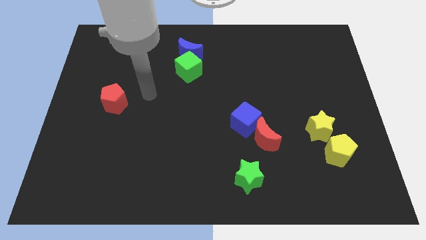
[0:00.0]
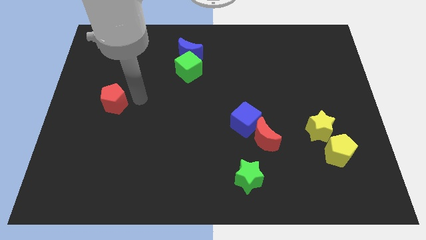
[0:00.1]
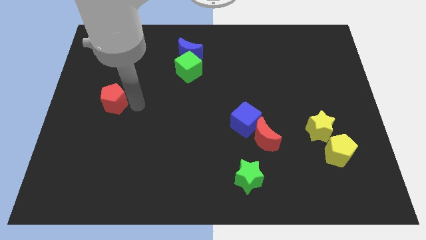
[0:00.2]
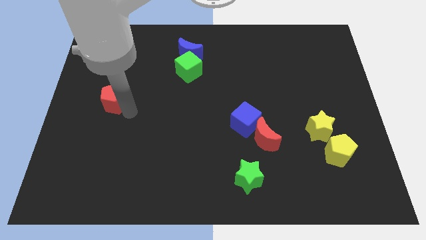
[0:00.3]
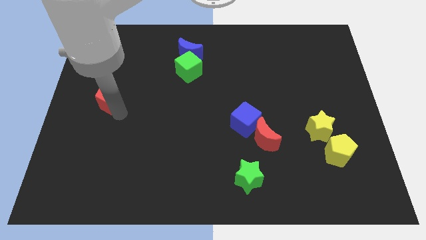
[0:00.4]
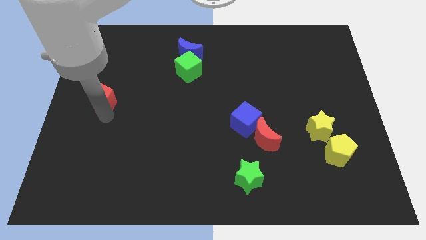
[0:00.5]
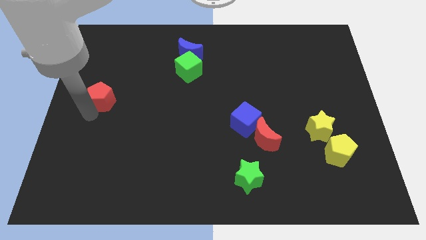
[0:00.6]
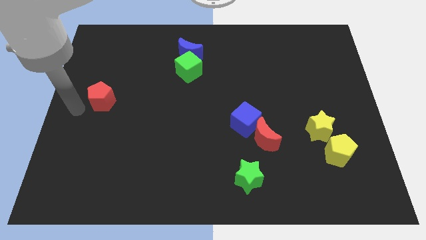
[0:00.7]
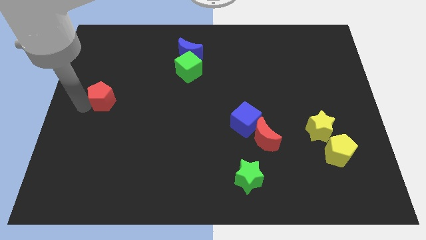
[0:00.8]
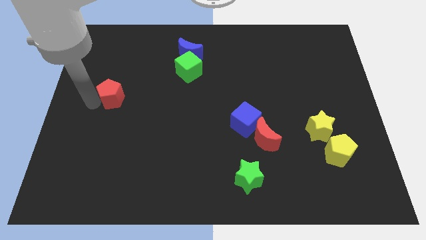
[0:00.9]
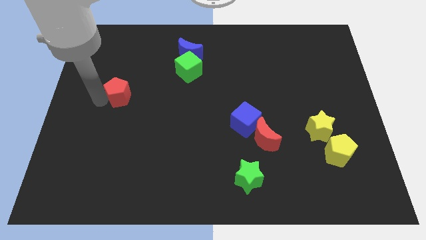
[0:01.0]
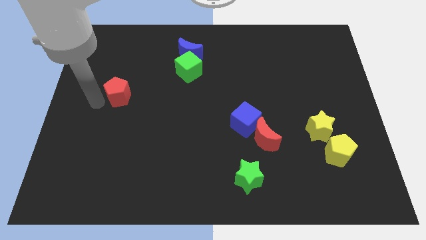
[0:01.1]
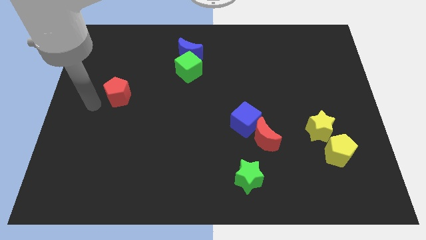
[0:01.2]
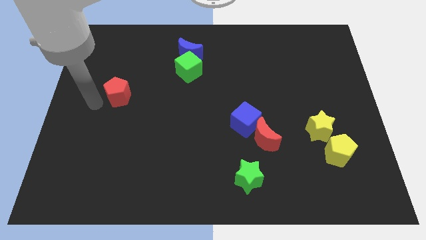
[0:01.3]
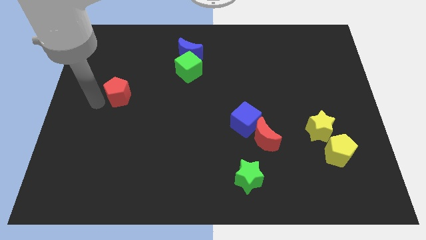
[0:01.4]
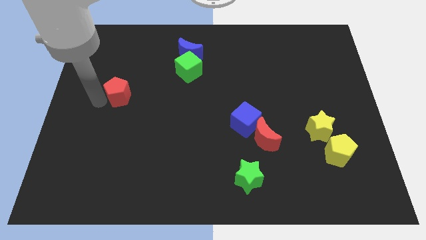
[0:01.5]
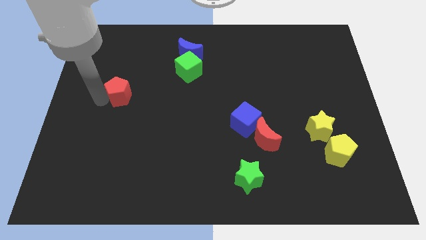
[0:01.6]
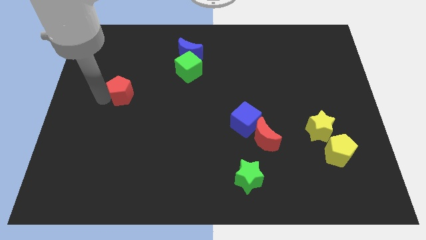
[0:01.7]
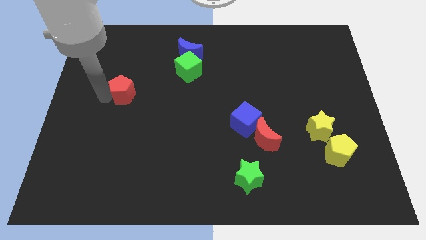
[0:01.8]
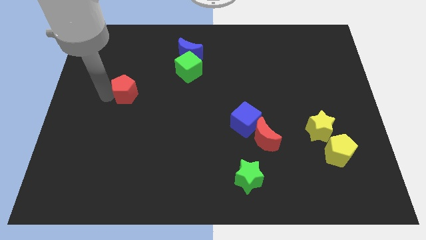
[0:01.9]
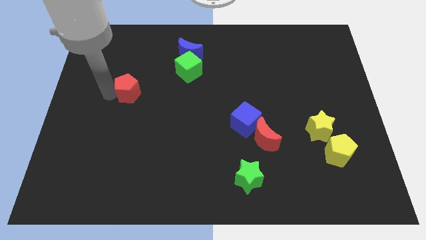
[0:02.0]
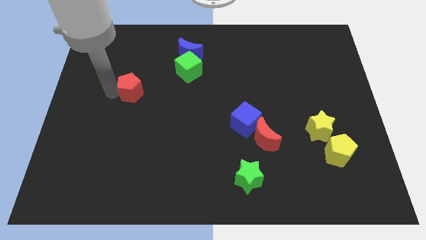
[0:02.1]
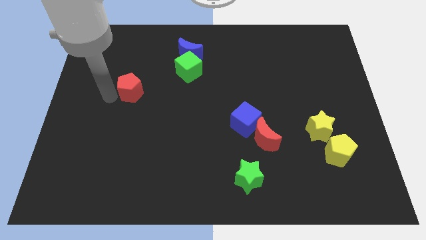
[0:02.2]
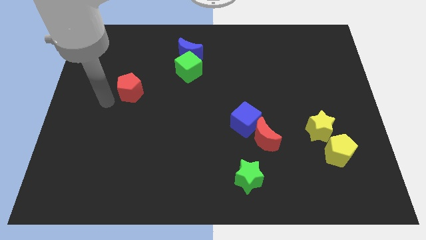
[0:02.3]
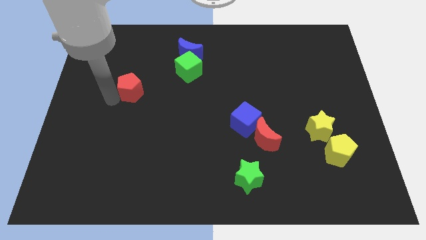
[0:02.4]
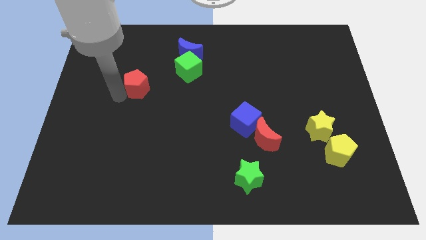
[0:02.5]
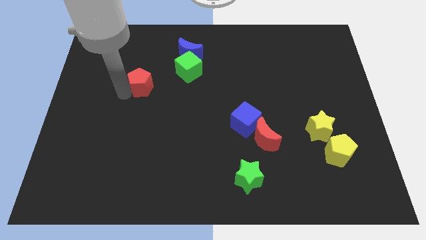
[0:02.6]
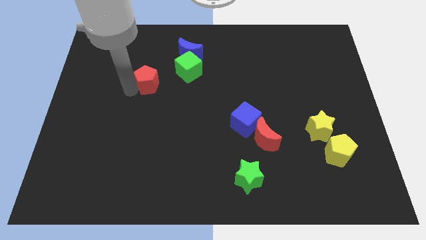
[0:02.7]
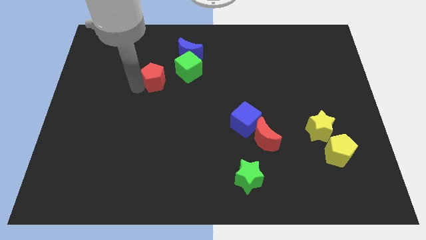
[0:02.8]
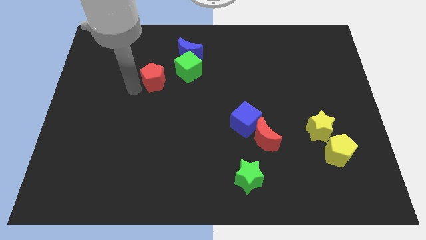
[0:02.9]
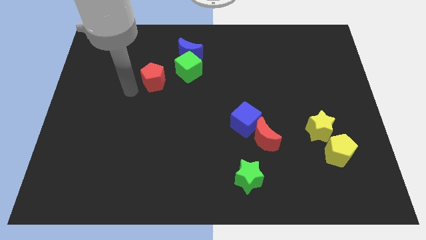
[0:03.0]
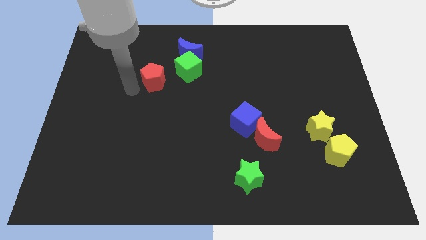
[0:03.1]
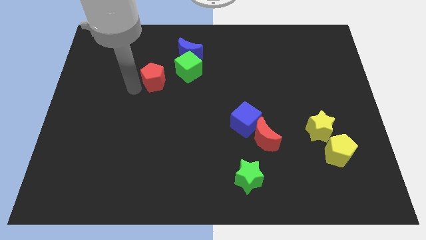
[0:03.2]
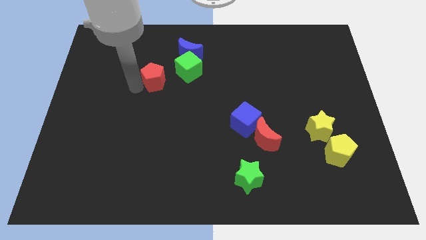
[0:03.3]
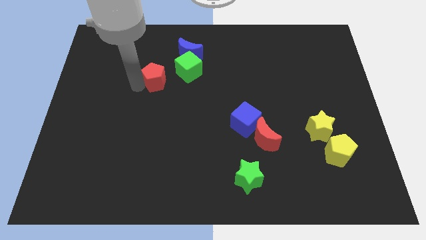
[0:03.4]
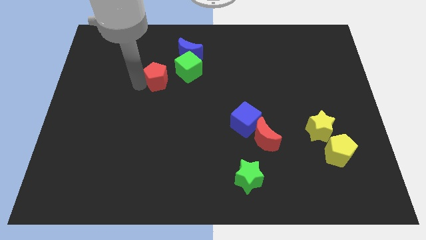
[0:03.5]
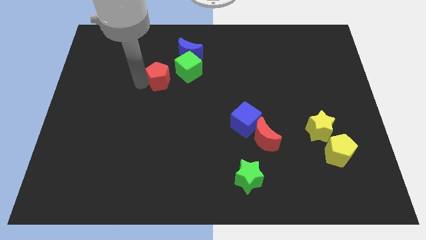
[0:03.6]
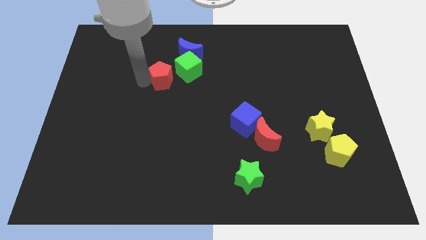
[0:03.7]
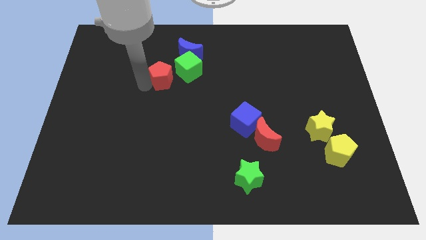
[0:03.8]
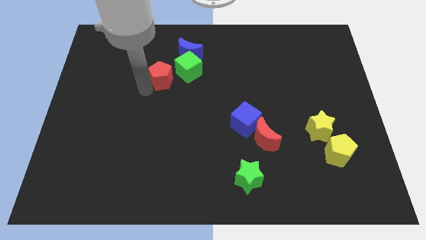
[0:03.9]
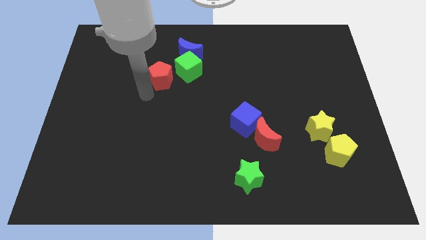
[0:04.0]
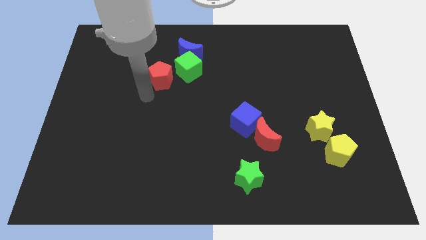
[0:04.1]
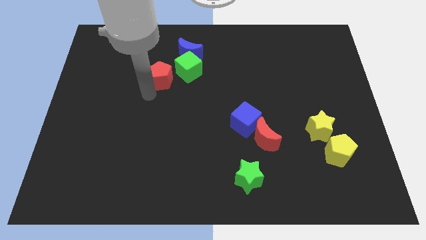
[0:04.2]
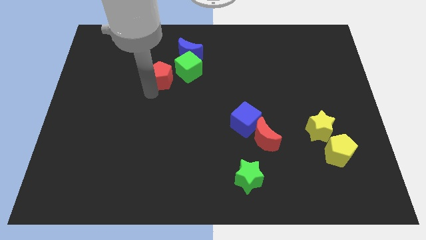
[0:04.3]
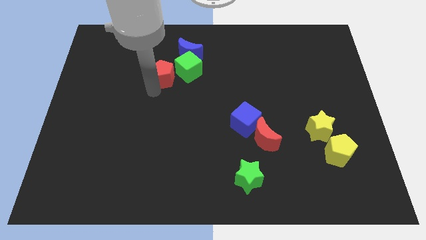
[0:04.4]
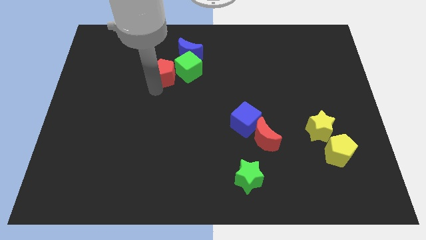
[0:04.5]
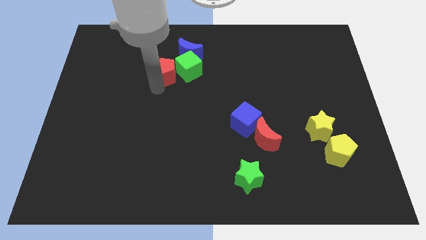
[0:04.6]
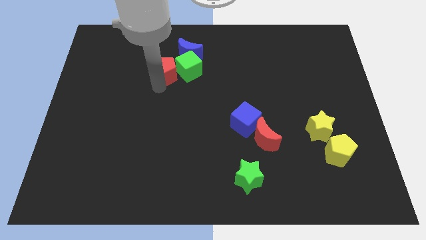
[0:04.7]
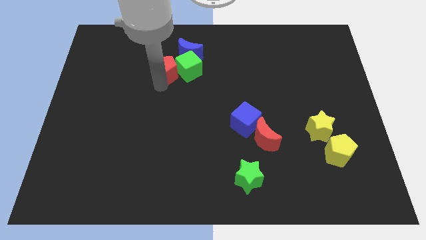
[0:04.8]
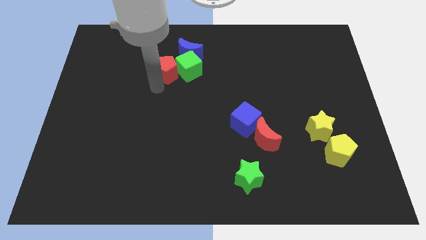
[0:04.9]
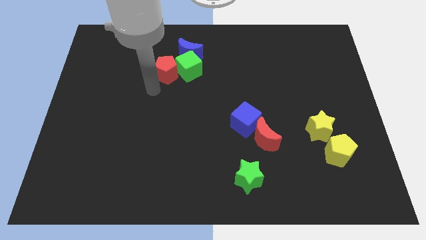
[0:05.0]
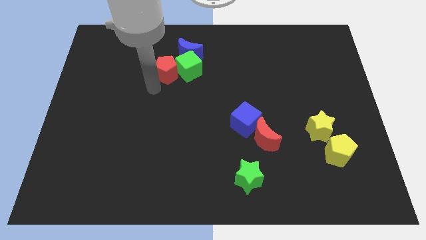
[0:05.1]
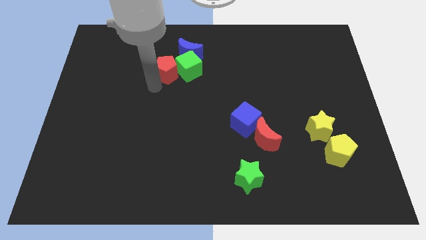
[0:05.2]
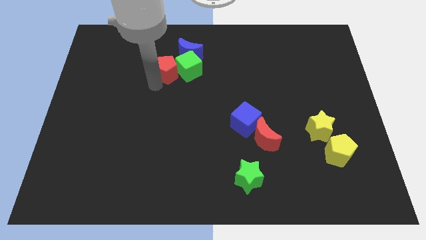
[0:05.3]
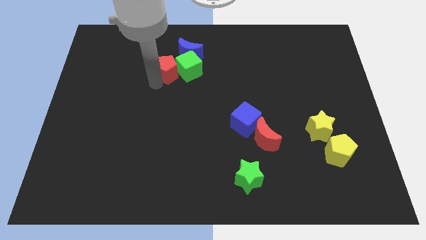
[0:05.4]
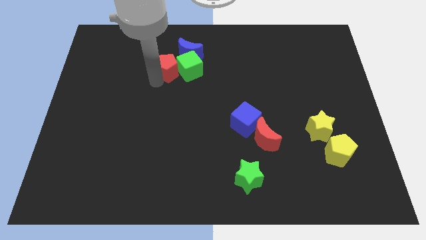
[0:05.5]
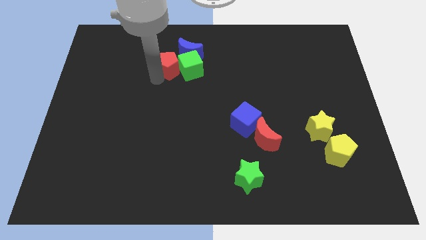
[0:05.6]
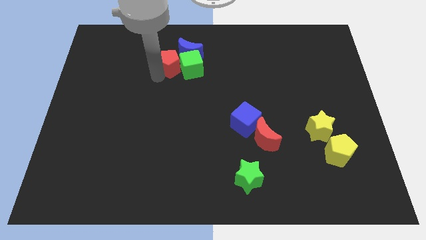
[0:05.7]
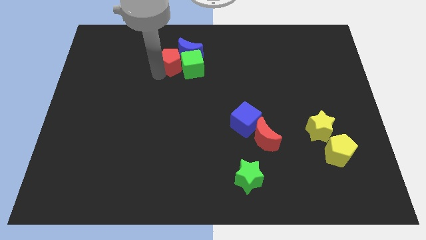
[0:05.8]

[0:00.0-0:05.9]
put the red pentagon next to the blue moon

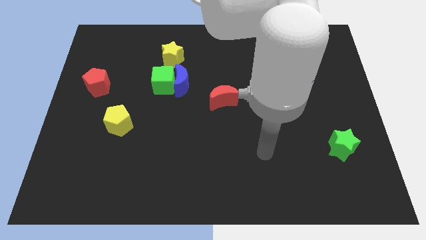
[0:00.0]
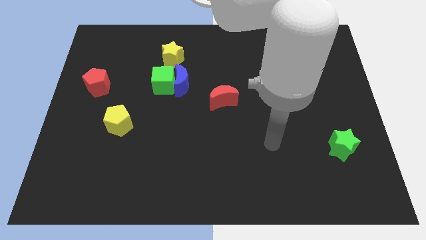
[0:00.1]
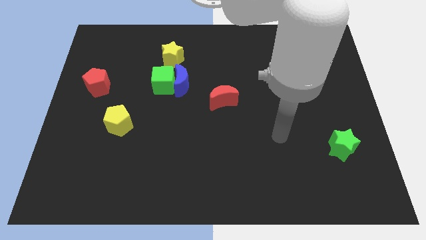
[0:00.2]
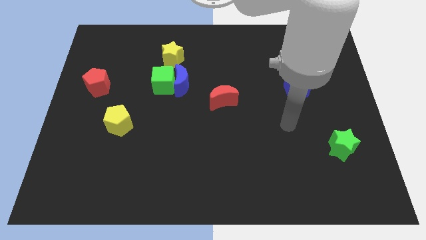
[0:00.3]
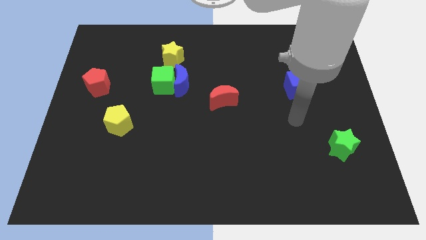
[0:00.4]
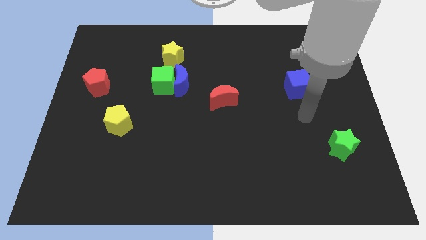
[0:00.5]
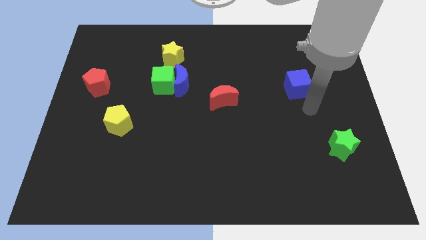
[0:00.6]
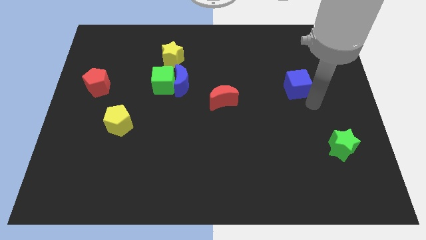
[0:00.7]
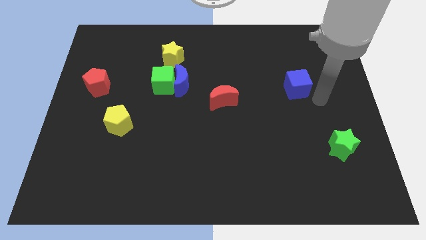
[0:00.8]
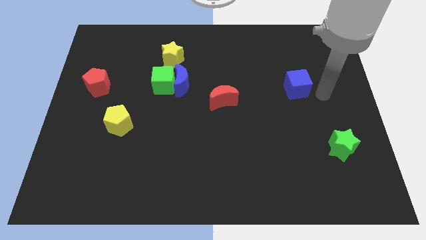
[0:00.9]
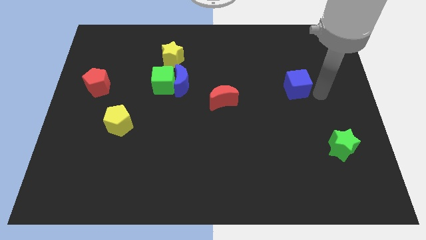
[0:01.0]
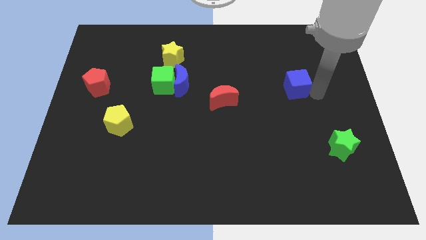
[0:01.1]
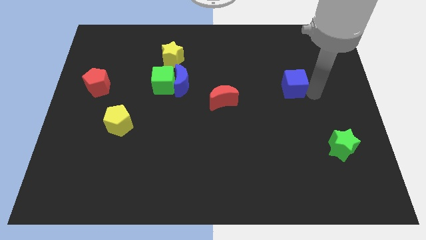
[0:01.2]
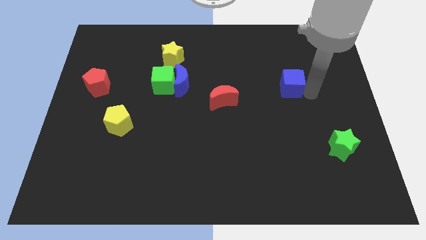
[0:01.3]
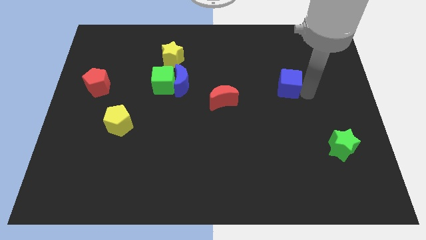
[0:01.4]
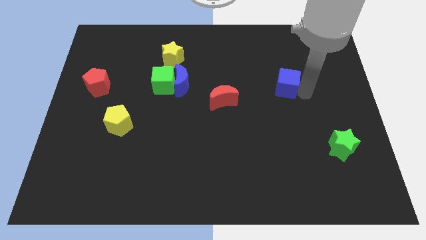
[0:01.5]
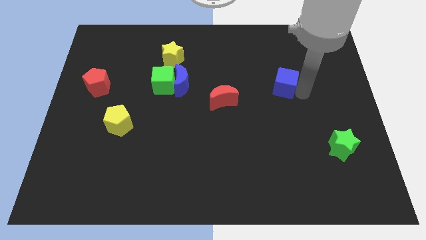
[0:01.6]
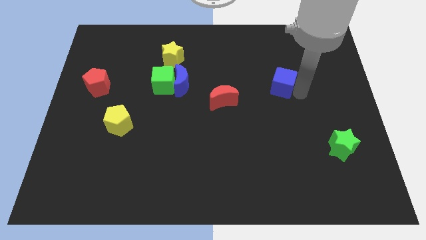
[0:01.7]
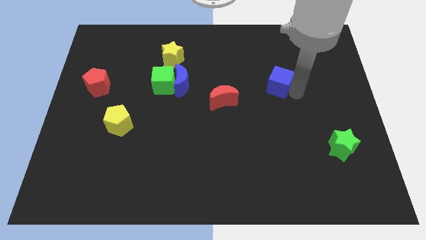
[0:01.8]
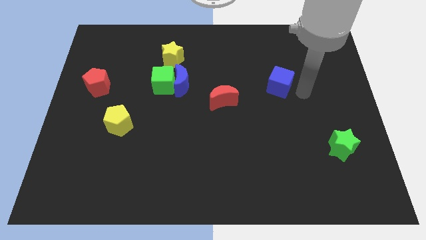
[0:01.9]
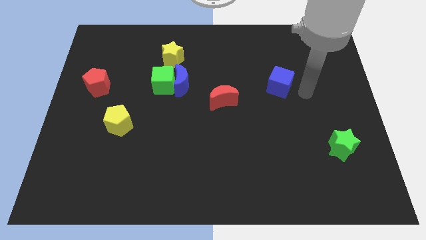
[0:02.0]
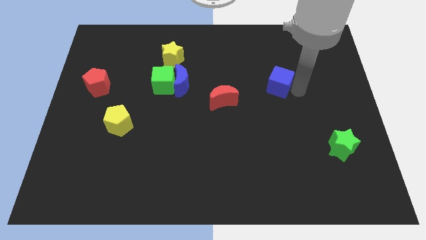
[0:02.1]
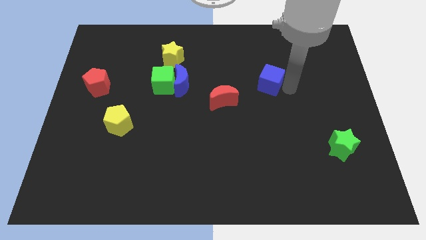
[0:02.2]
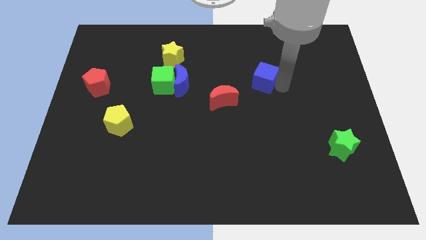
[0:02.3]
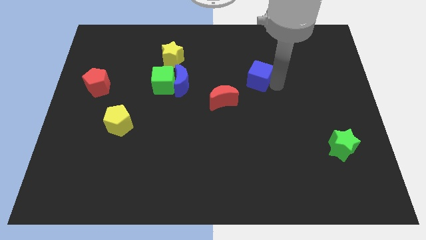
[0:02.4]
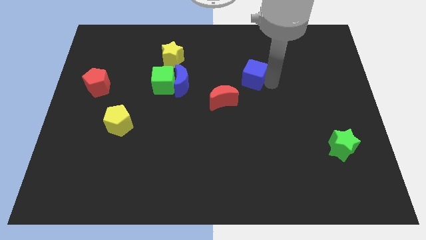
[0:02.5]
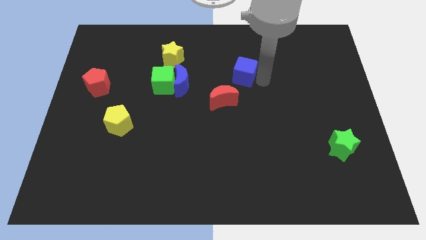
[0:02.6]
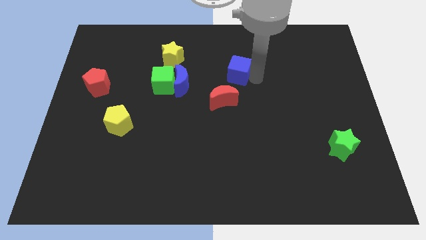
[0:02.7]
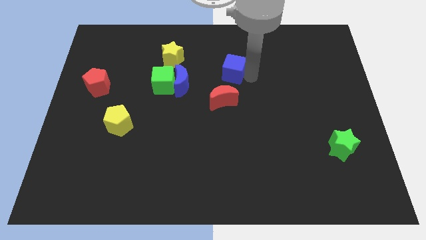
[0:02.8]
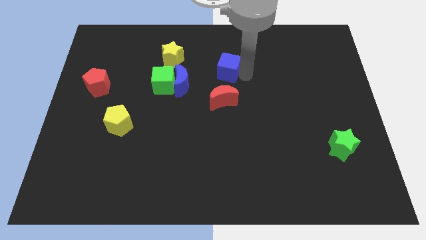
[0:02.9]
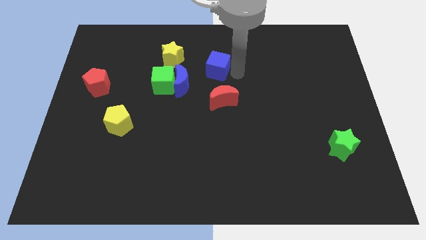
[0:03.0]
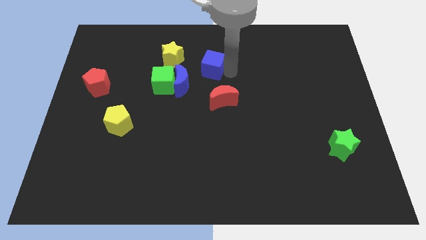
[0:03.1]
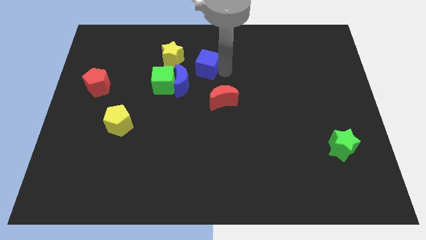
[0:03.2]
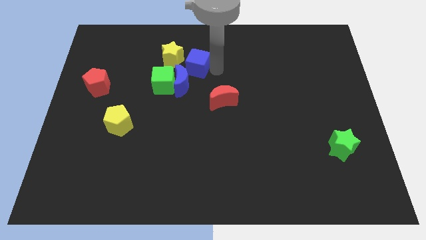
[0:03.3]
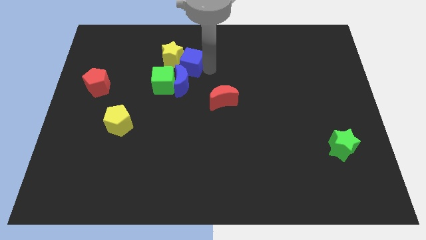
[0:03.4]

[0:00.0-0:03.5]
slide the blue cube next to the yellow star
